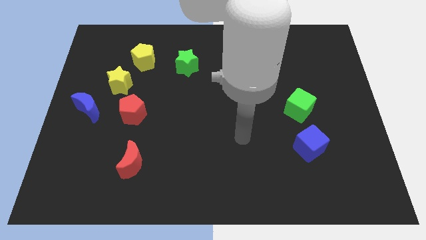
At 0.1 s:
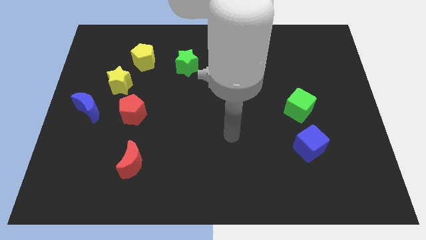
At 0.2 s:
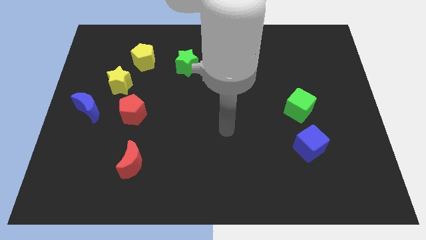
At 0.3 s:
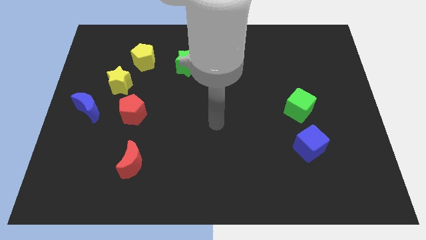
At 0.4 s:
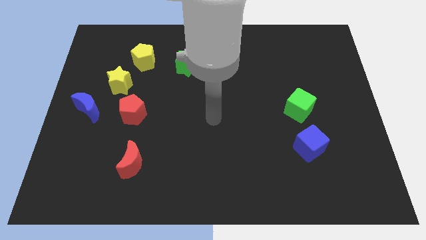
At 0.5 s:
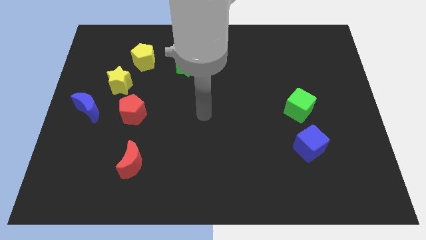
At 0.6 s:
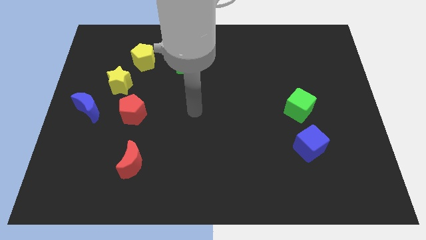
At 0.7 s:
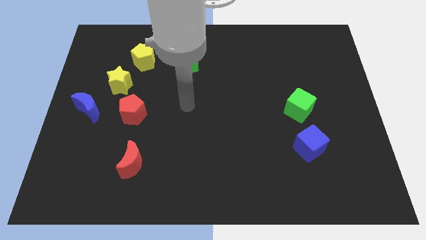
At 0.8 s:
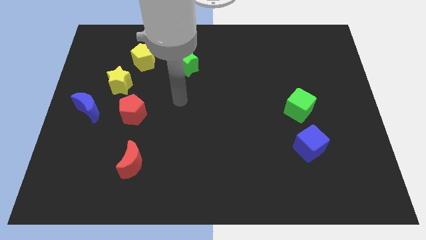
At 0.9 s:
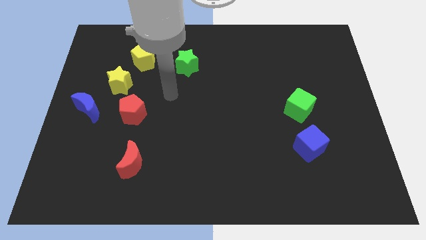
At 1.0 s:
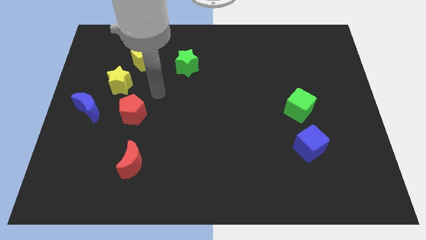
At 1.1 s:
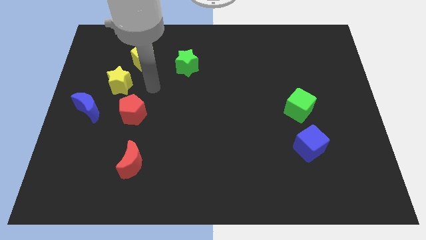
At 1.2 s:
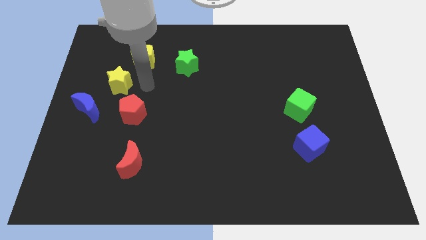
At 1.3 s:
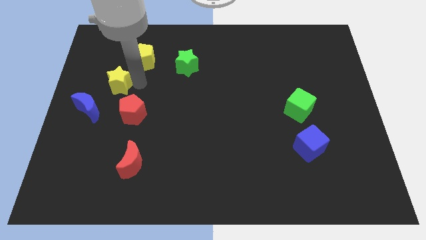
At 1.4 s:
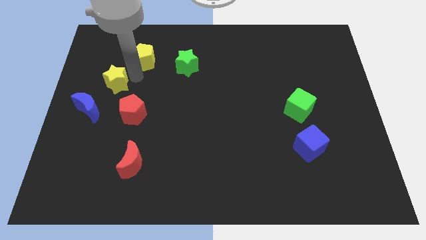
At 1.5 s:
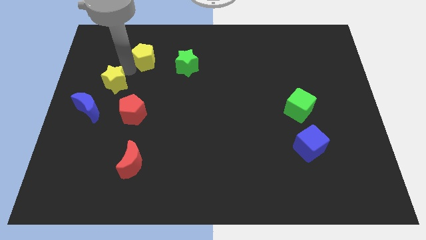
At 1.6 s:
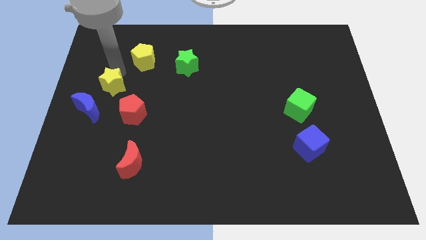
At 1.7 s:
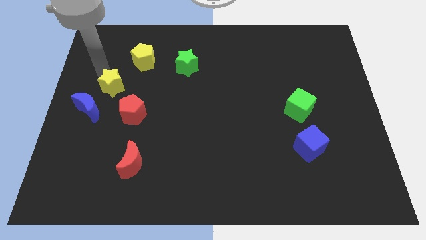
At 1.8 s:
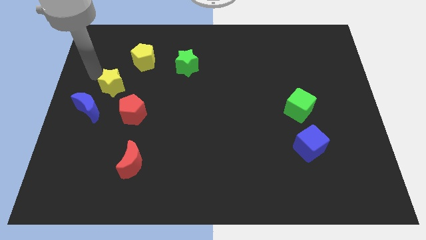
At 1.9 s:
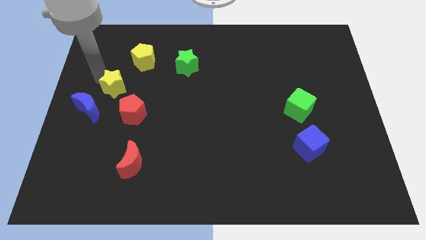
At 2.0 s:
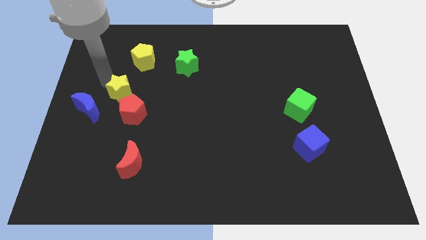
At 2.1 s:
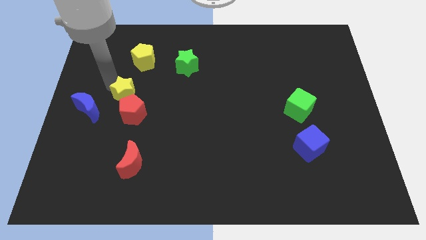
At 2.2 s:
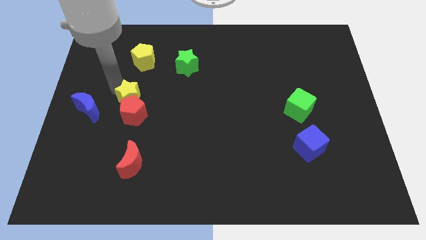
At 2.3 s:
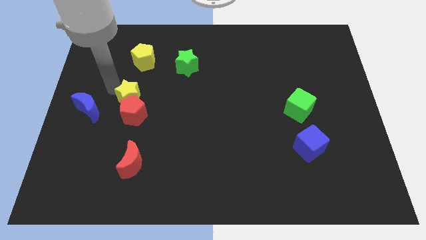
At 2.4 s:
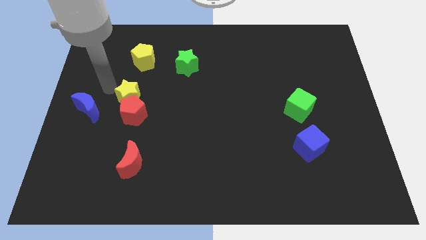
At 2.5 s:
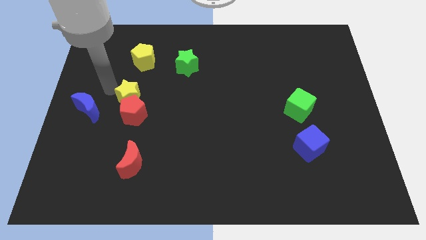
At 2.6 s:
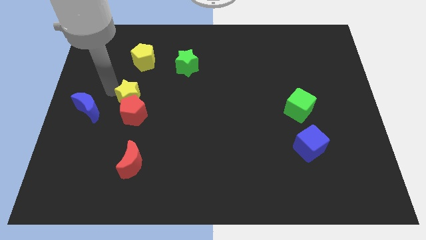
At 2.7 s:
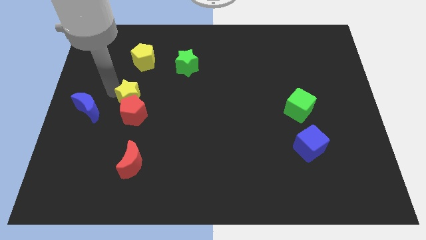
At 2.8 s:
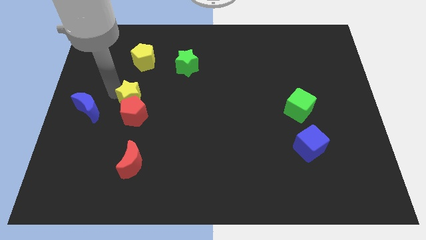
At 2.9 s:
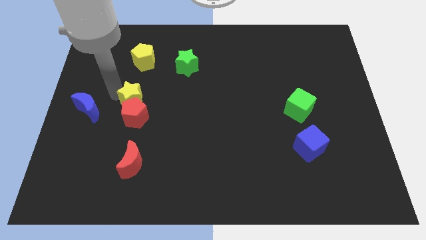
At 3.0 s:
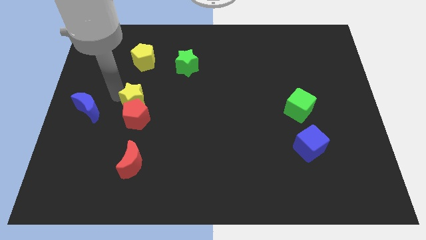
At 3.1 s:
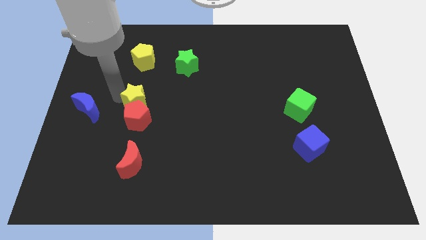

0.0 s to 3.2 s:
slightly move the yellow star diagonally downwards and to the right

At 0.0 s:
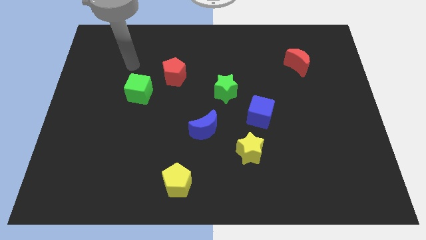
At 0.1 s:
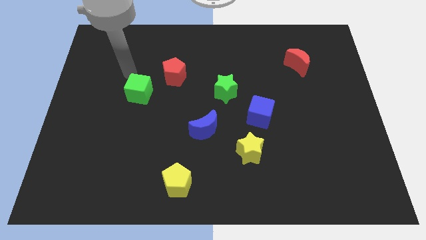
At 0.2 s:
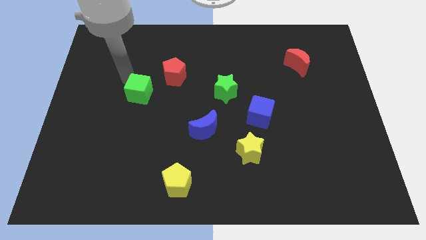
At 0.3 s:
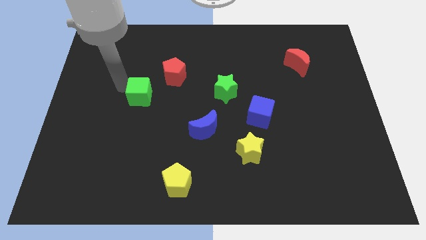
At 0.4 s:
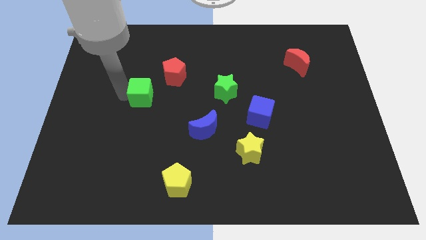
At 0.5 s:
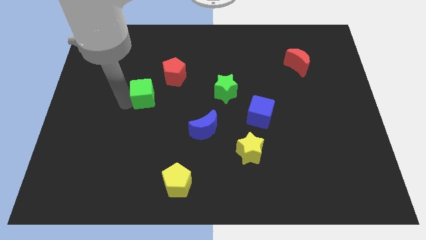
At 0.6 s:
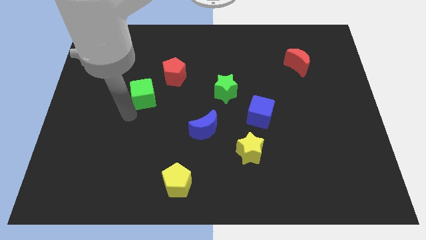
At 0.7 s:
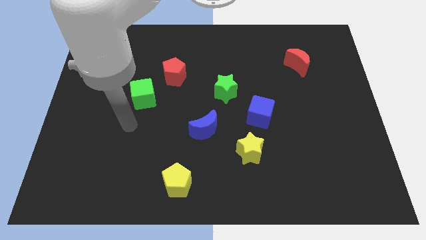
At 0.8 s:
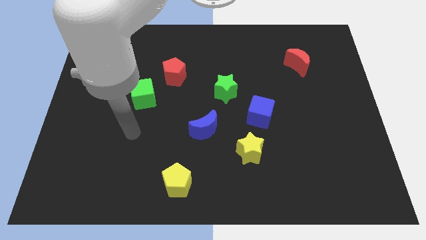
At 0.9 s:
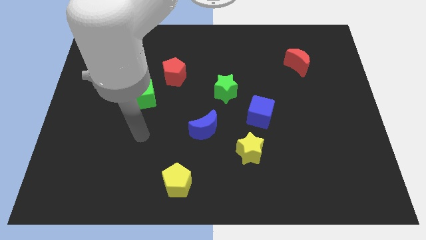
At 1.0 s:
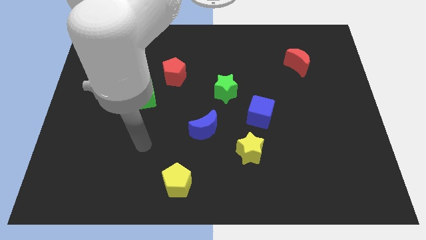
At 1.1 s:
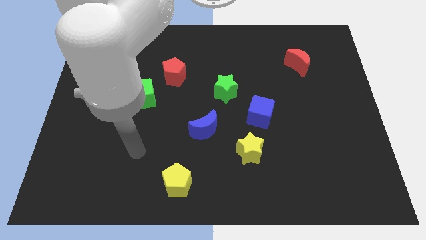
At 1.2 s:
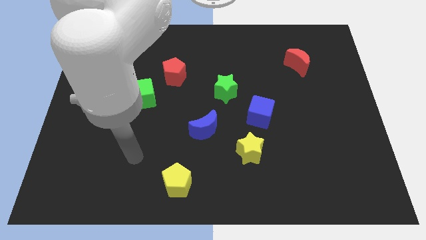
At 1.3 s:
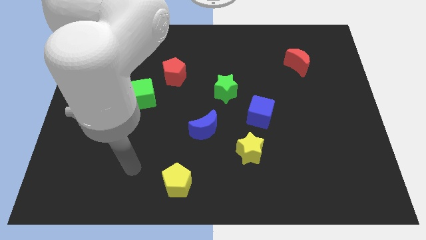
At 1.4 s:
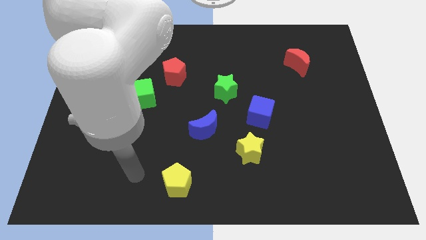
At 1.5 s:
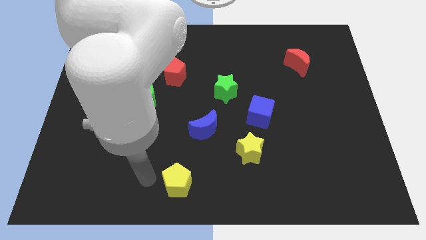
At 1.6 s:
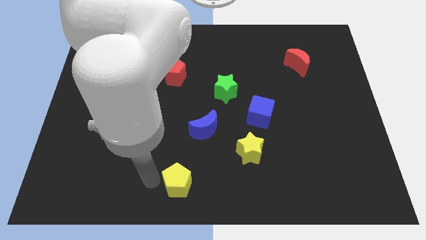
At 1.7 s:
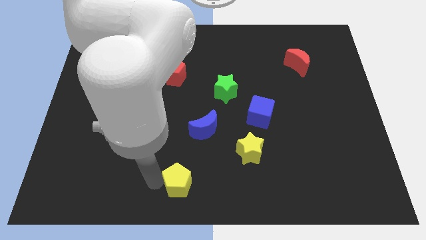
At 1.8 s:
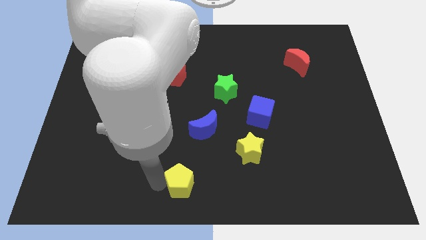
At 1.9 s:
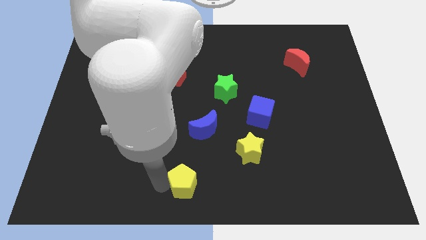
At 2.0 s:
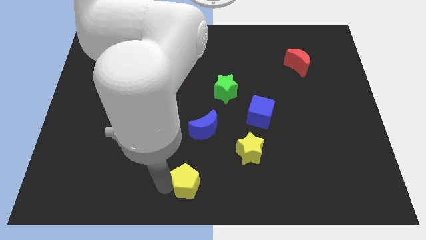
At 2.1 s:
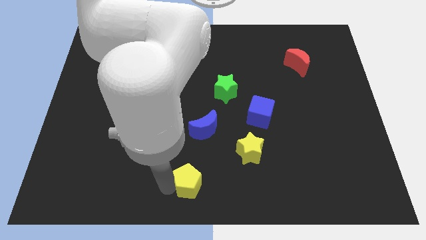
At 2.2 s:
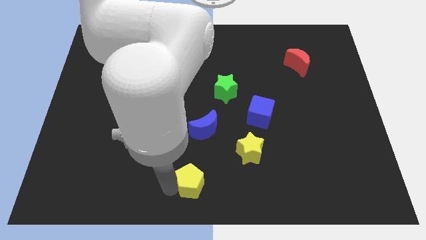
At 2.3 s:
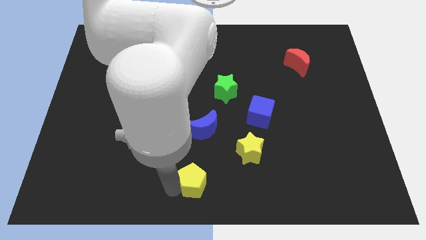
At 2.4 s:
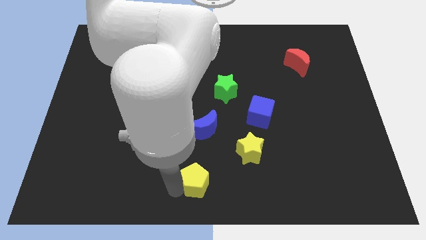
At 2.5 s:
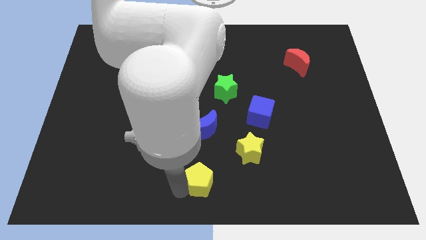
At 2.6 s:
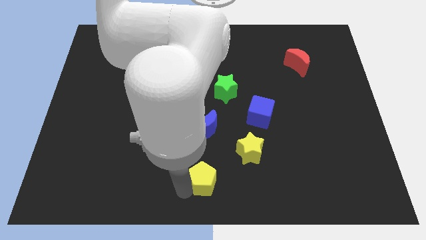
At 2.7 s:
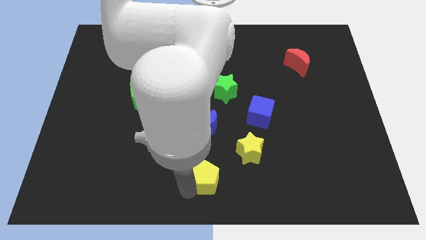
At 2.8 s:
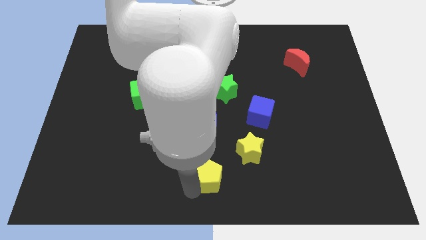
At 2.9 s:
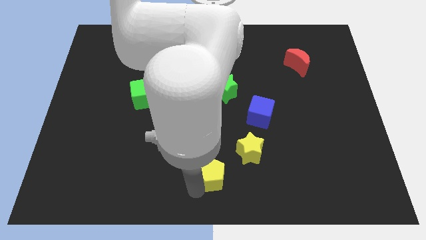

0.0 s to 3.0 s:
push the yellow pentagon right a little bit

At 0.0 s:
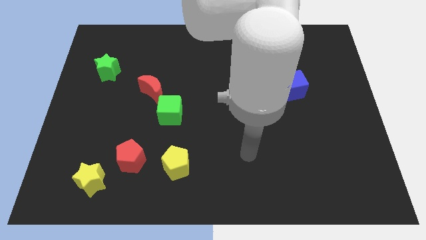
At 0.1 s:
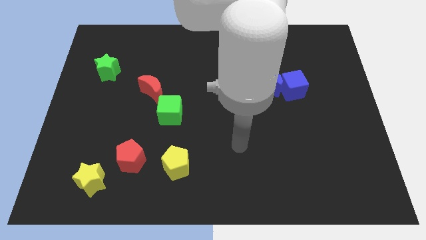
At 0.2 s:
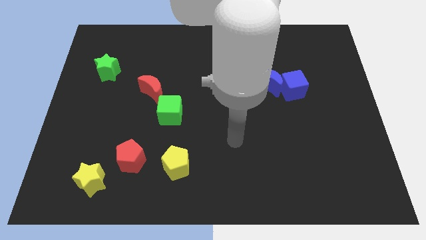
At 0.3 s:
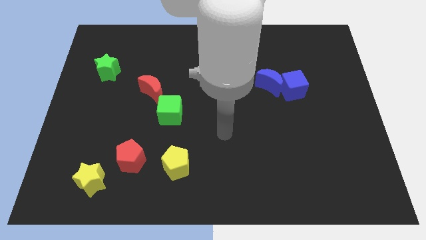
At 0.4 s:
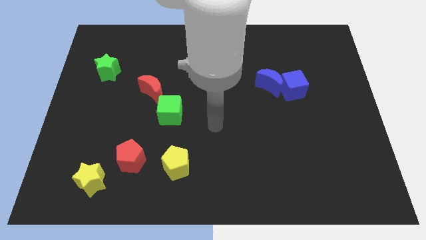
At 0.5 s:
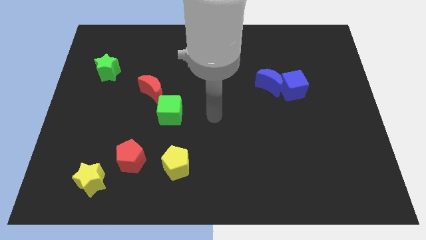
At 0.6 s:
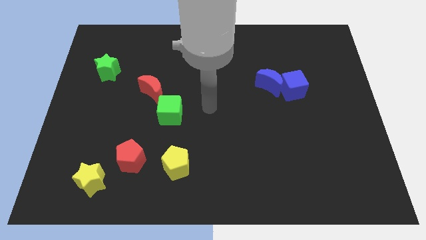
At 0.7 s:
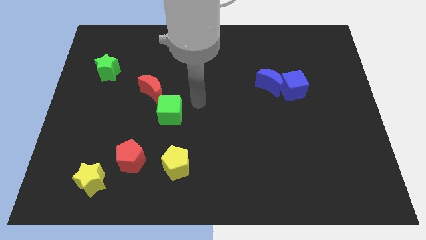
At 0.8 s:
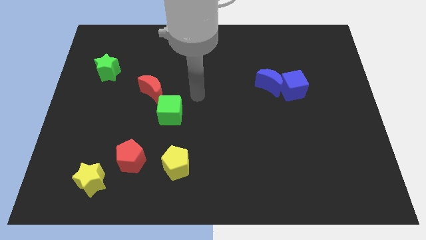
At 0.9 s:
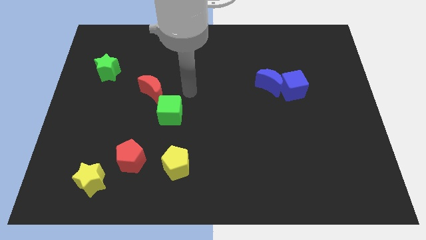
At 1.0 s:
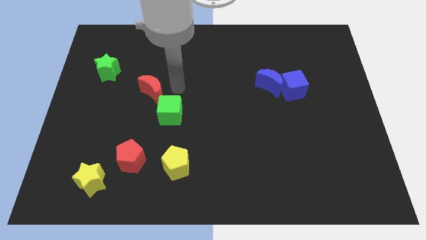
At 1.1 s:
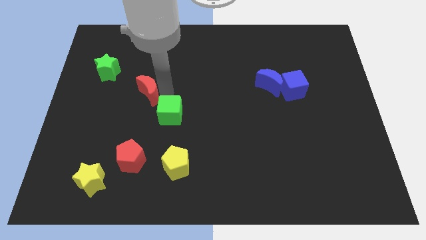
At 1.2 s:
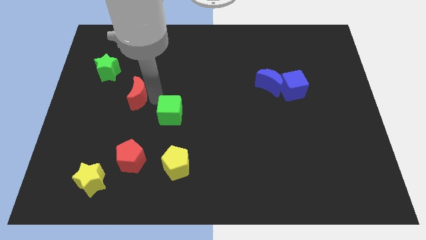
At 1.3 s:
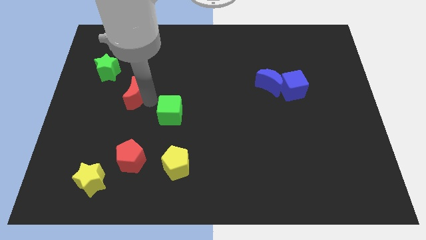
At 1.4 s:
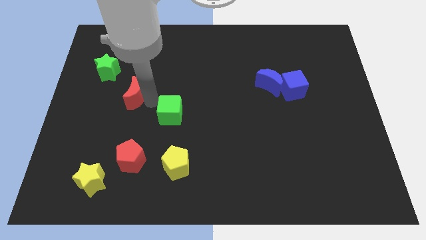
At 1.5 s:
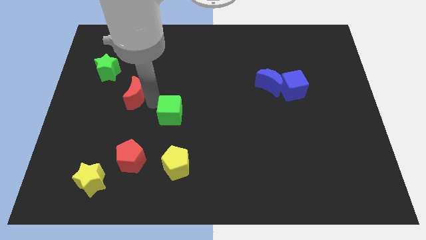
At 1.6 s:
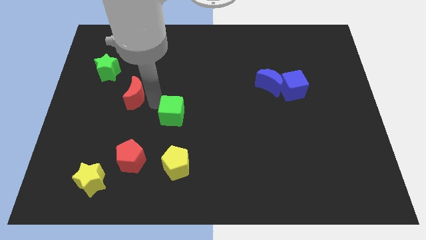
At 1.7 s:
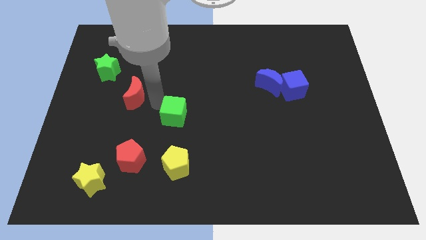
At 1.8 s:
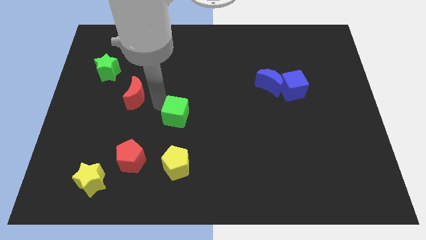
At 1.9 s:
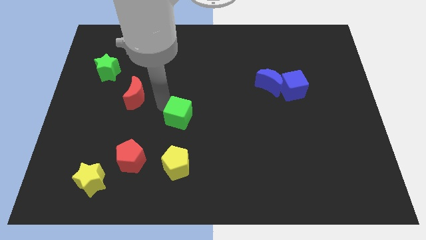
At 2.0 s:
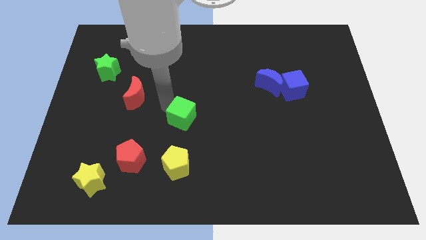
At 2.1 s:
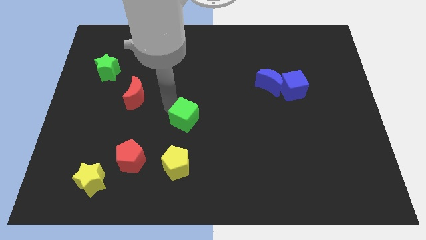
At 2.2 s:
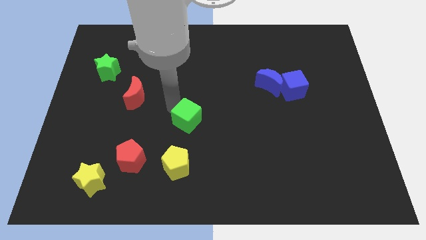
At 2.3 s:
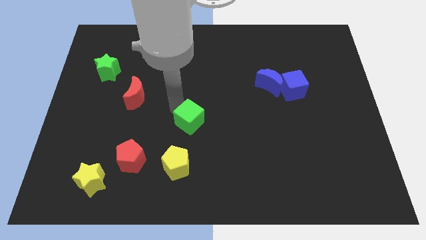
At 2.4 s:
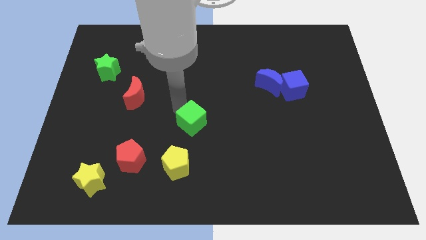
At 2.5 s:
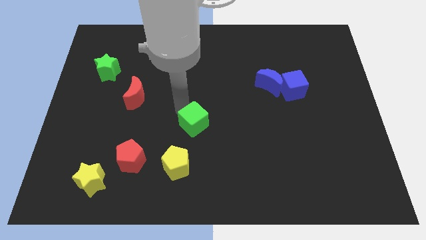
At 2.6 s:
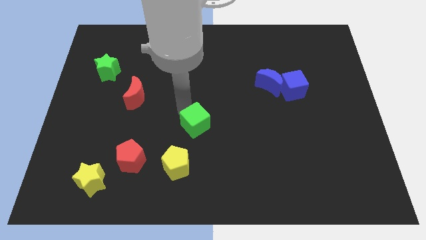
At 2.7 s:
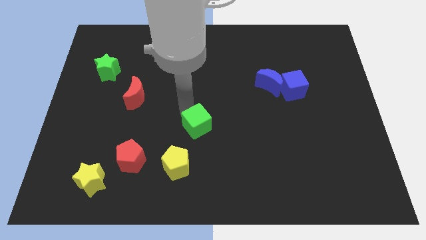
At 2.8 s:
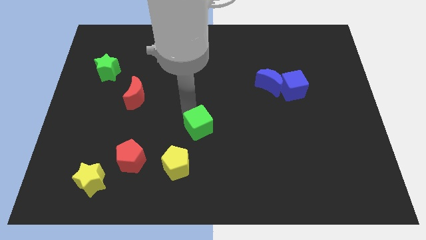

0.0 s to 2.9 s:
move the green cube a little down and to the right
